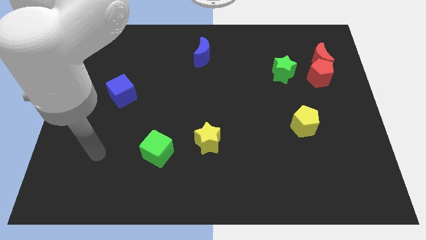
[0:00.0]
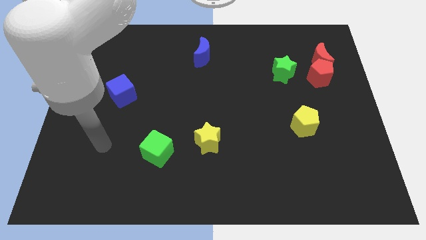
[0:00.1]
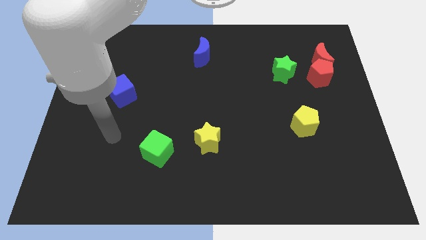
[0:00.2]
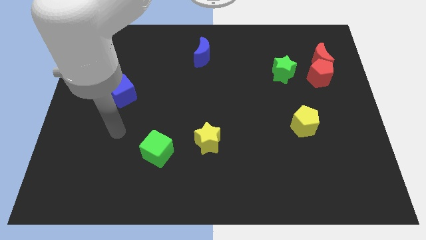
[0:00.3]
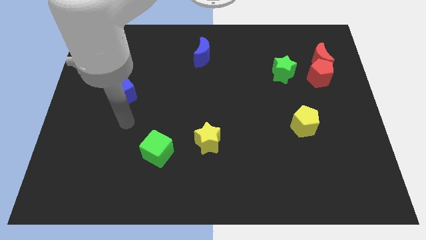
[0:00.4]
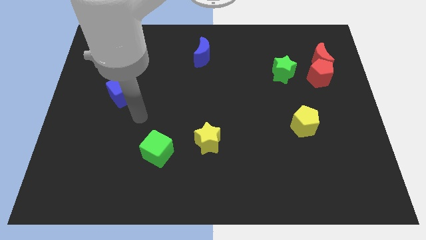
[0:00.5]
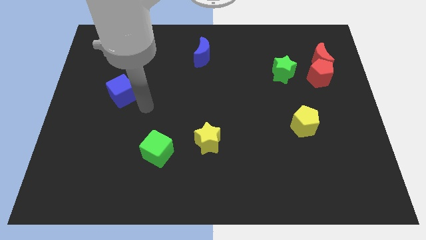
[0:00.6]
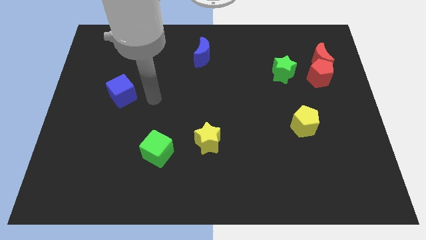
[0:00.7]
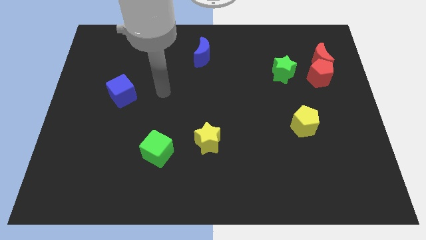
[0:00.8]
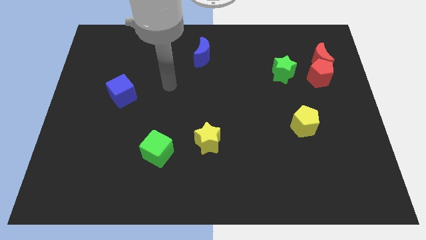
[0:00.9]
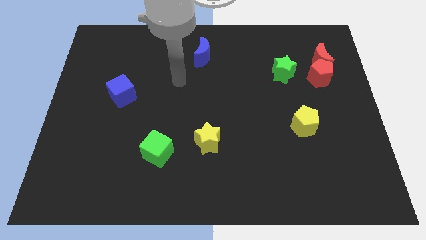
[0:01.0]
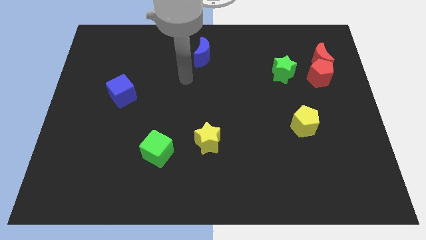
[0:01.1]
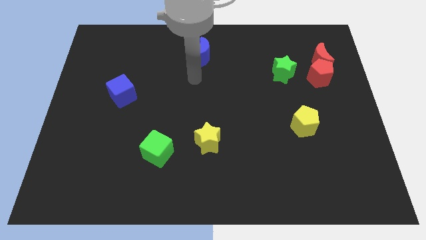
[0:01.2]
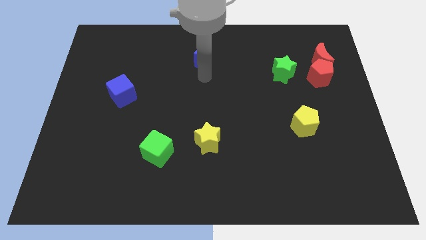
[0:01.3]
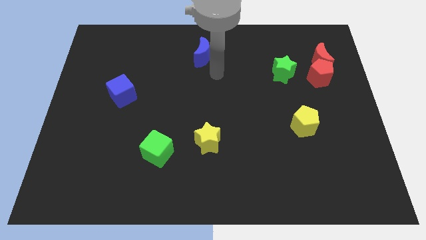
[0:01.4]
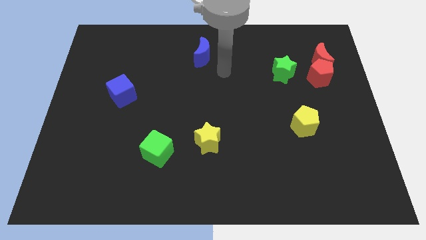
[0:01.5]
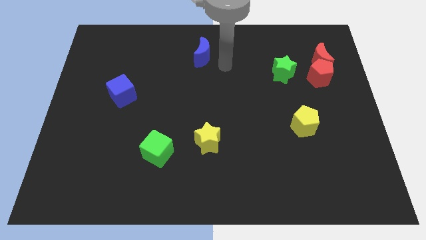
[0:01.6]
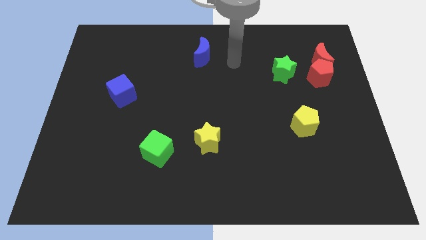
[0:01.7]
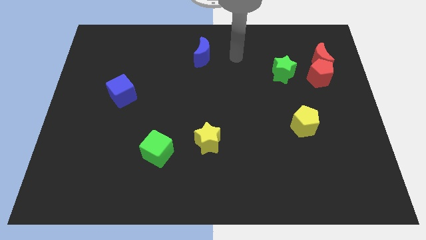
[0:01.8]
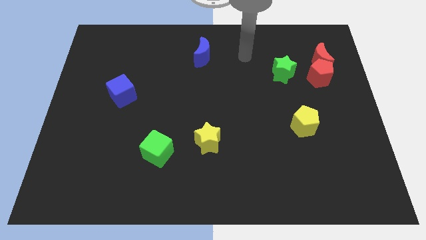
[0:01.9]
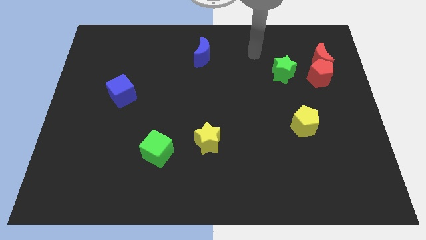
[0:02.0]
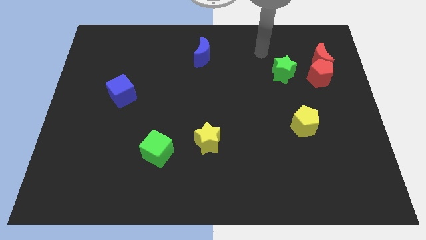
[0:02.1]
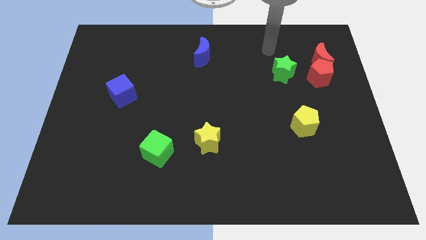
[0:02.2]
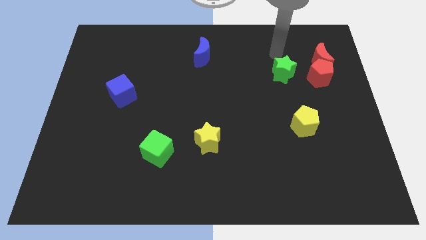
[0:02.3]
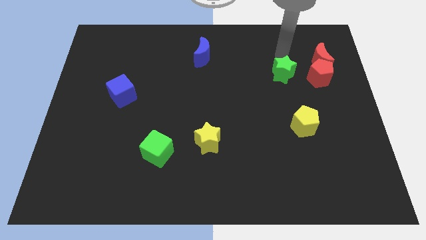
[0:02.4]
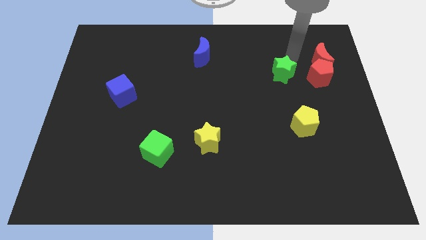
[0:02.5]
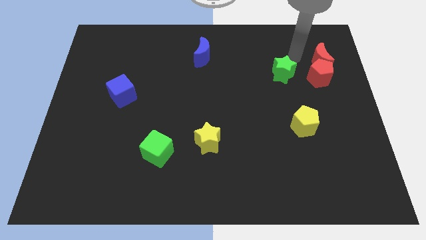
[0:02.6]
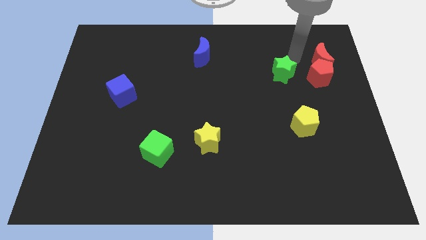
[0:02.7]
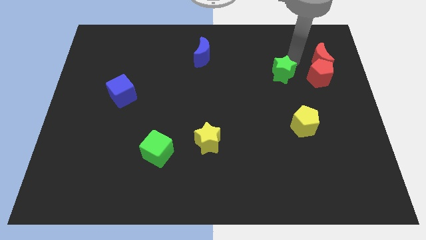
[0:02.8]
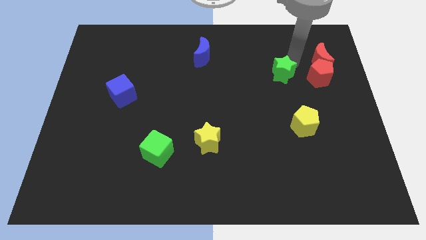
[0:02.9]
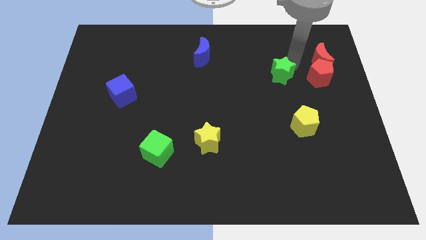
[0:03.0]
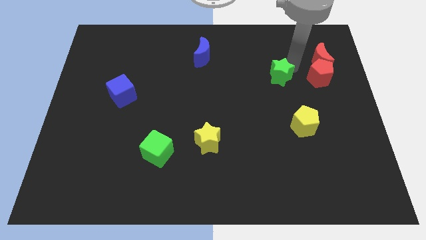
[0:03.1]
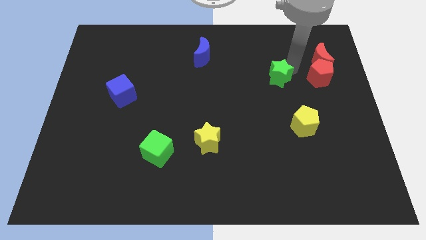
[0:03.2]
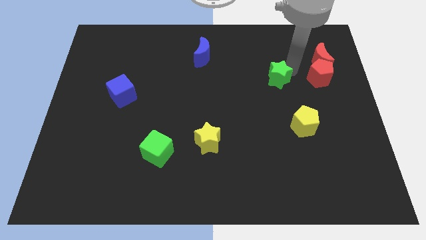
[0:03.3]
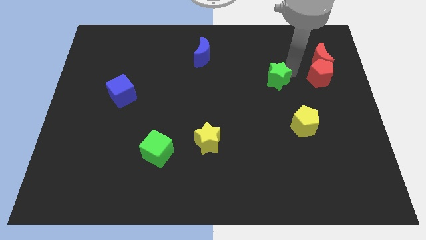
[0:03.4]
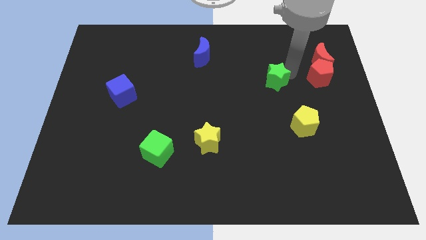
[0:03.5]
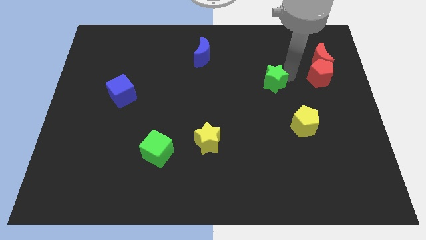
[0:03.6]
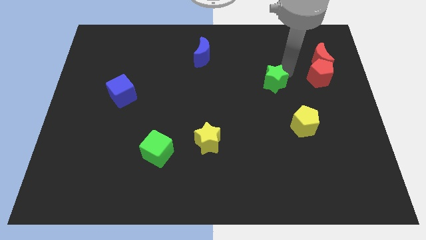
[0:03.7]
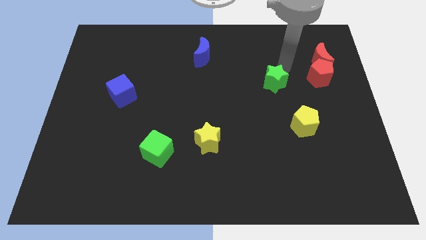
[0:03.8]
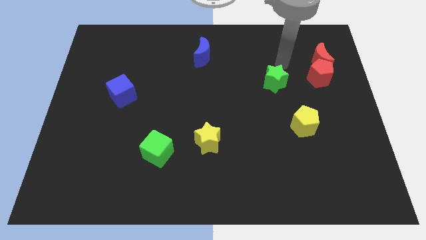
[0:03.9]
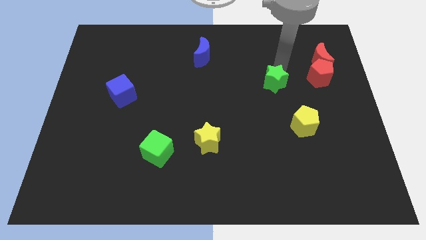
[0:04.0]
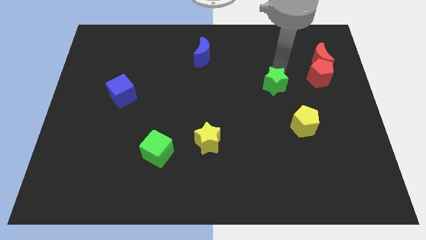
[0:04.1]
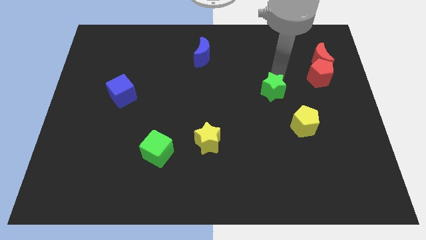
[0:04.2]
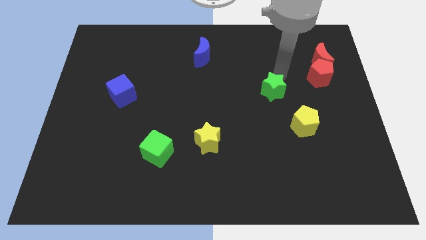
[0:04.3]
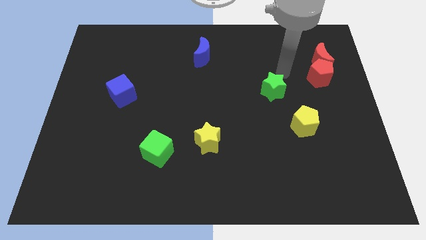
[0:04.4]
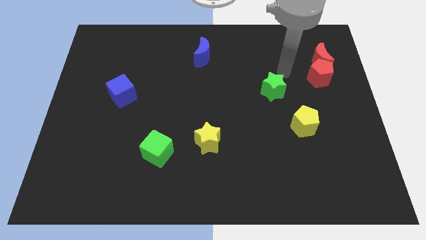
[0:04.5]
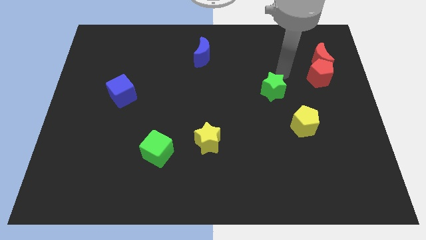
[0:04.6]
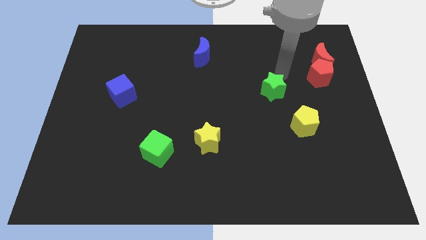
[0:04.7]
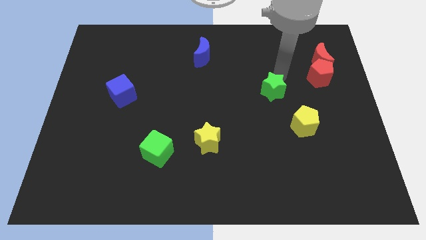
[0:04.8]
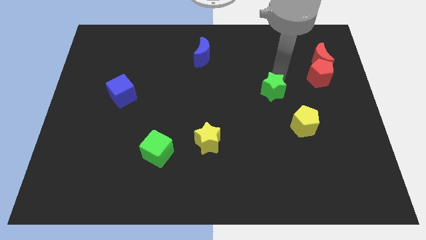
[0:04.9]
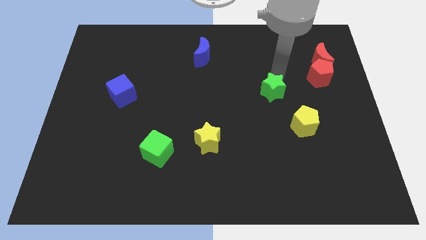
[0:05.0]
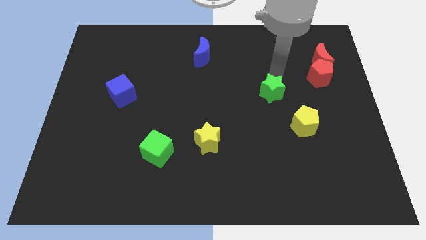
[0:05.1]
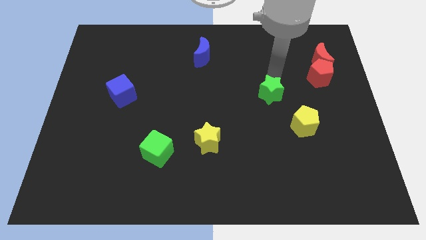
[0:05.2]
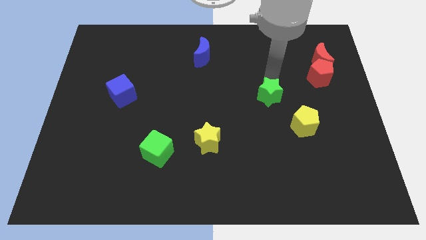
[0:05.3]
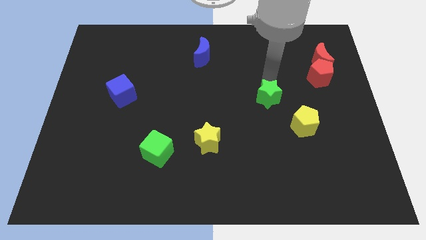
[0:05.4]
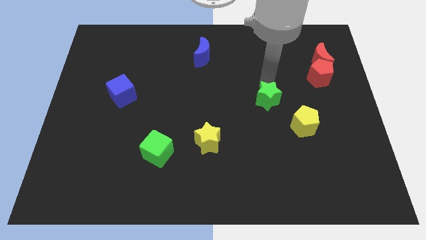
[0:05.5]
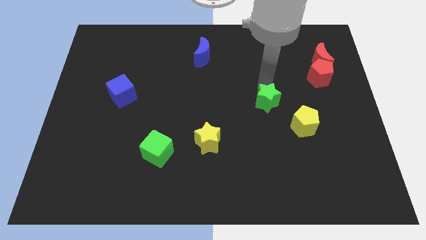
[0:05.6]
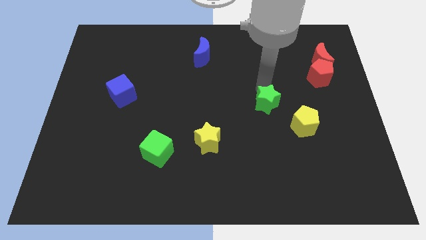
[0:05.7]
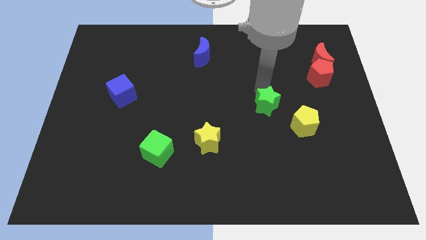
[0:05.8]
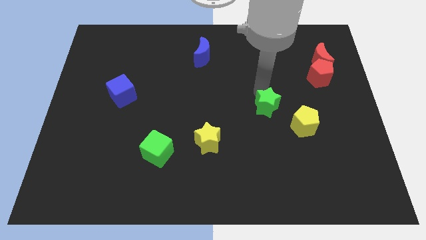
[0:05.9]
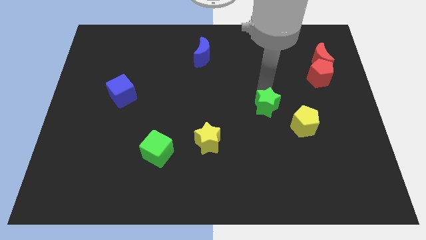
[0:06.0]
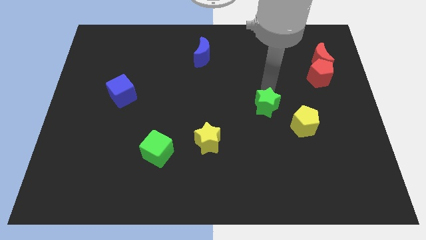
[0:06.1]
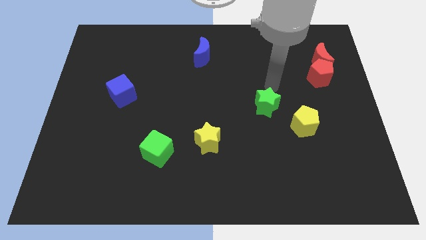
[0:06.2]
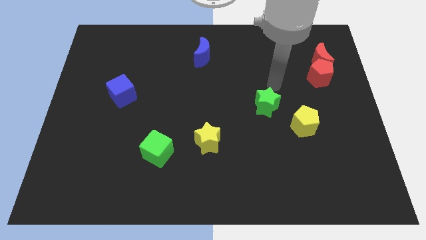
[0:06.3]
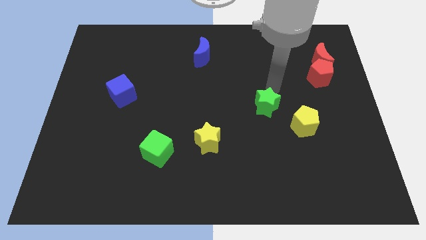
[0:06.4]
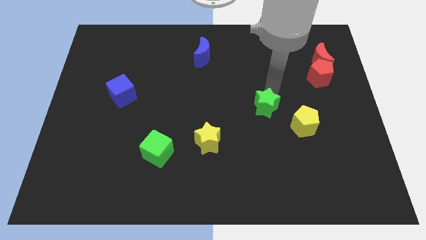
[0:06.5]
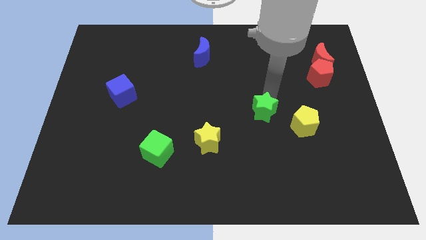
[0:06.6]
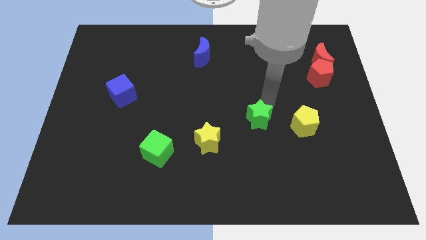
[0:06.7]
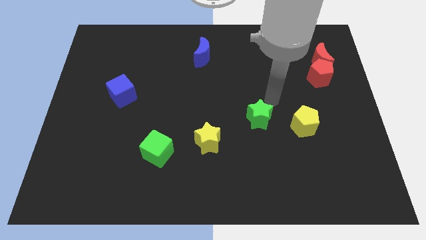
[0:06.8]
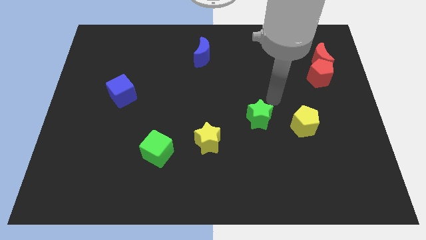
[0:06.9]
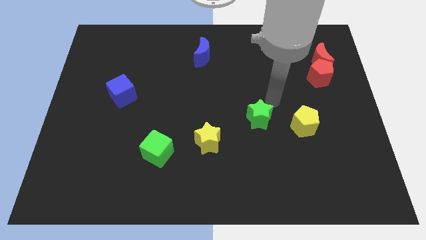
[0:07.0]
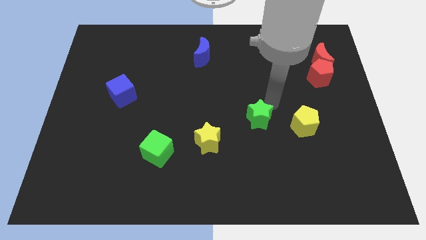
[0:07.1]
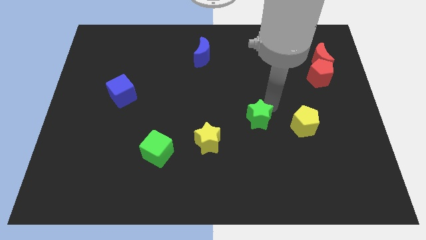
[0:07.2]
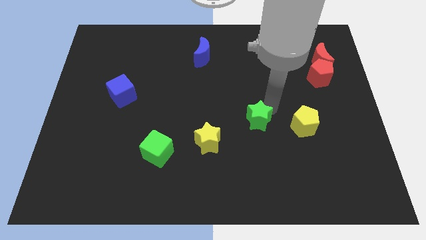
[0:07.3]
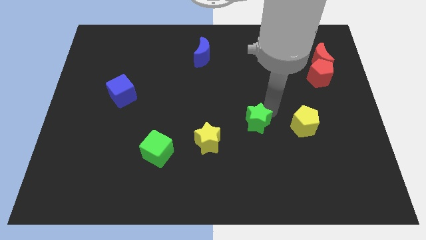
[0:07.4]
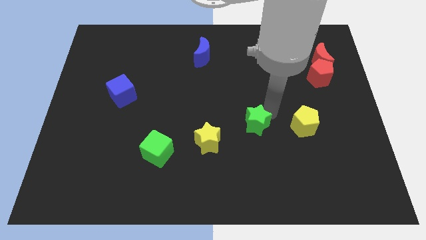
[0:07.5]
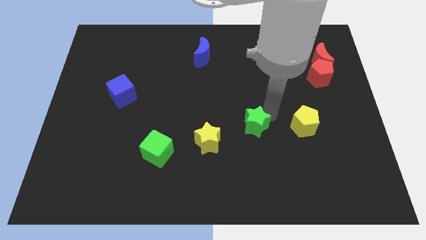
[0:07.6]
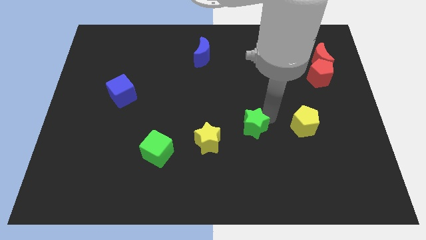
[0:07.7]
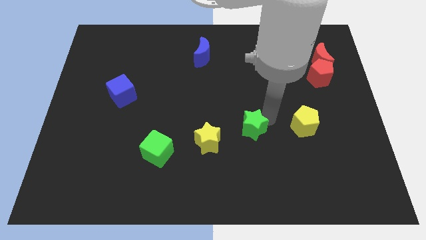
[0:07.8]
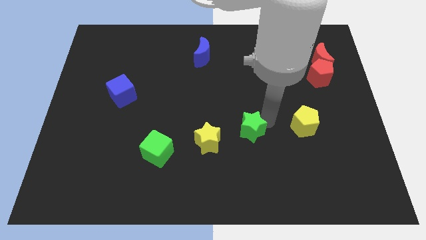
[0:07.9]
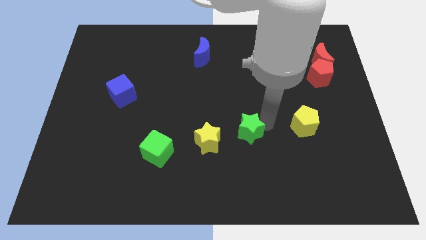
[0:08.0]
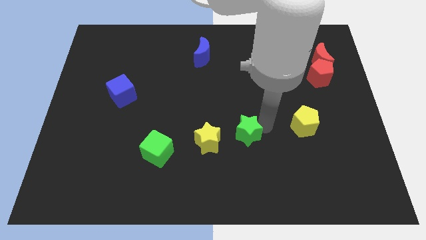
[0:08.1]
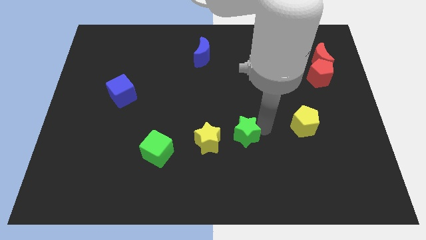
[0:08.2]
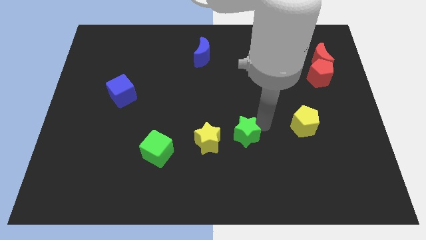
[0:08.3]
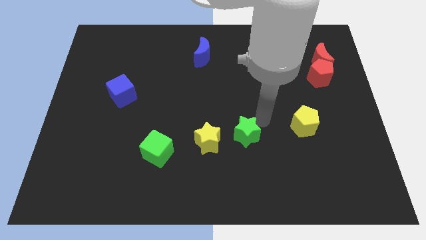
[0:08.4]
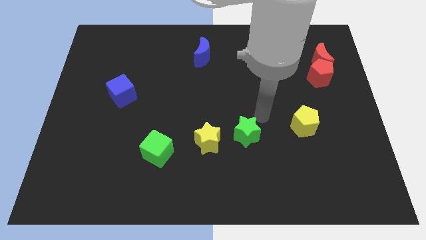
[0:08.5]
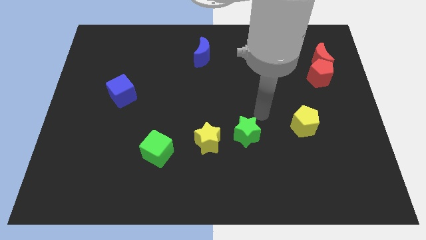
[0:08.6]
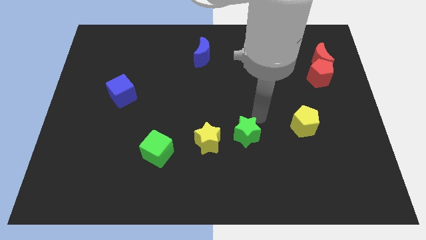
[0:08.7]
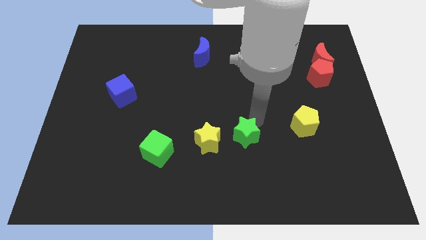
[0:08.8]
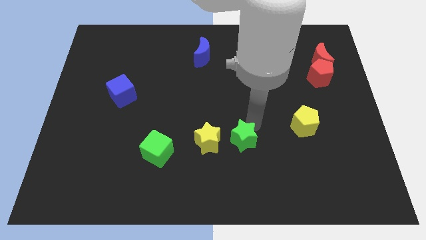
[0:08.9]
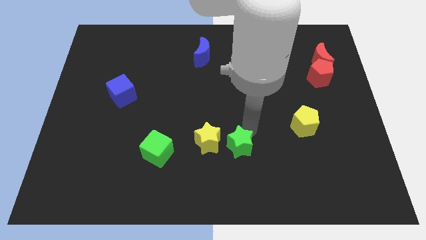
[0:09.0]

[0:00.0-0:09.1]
slide the green star diagonally down and to the right of the yellow star
